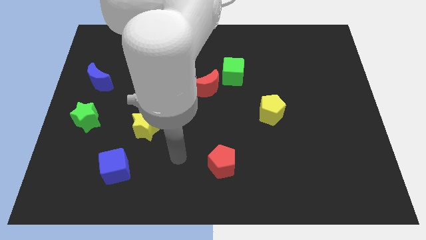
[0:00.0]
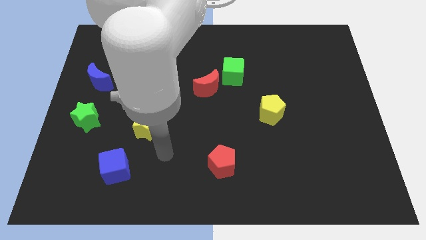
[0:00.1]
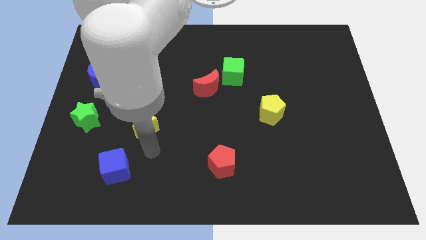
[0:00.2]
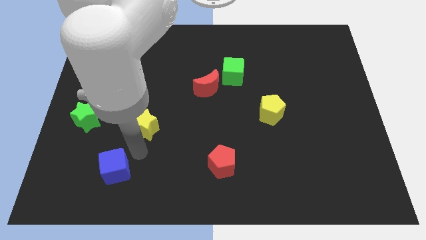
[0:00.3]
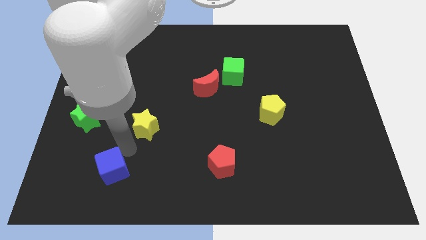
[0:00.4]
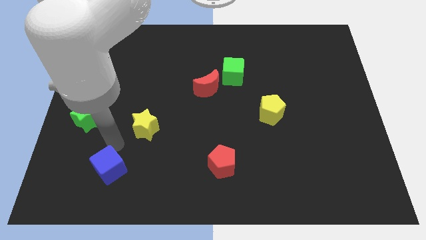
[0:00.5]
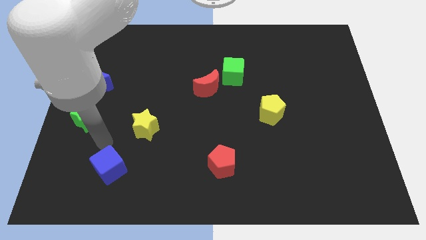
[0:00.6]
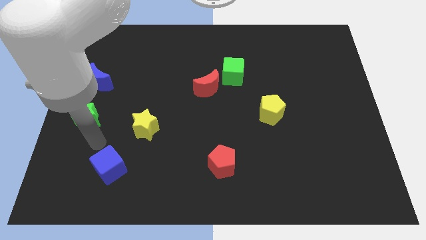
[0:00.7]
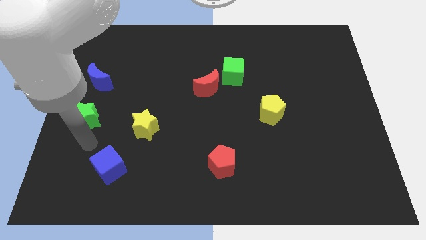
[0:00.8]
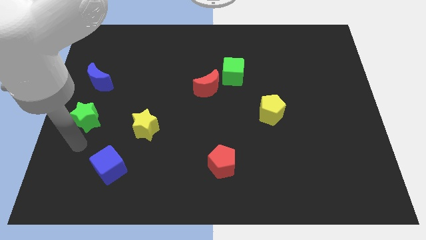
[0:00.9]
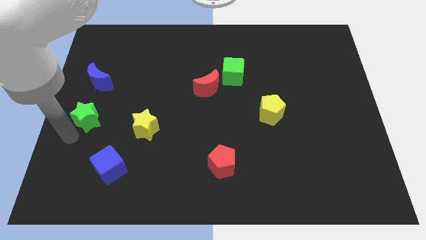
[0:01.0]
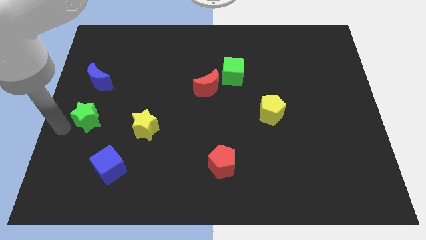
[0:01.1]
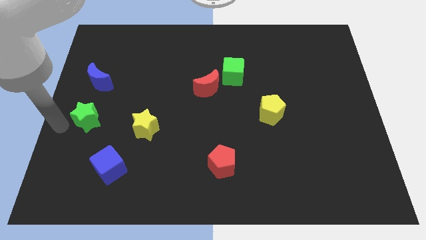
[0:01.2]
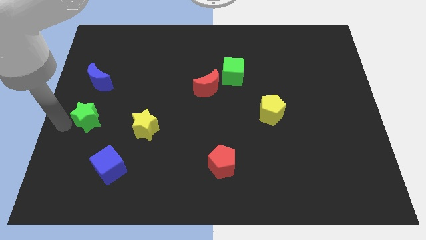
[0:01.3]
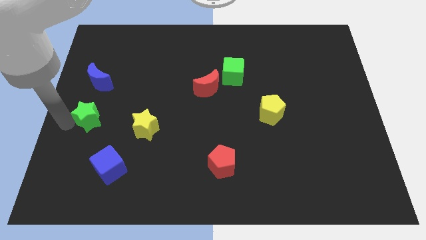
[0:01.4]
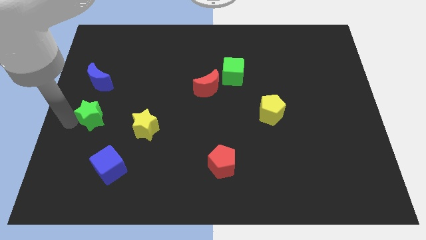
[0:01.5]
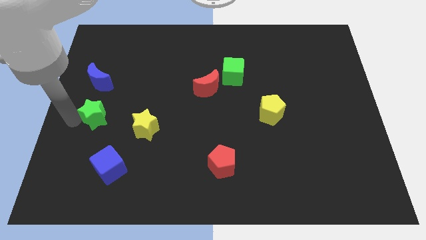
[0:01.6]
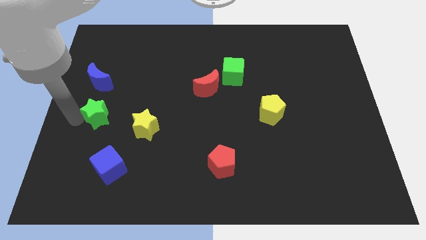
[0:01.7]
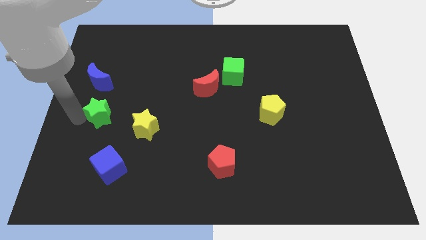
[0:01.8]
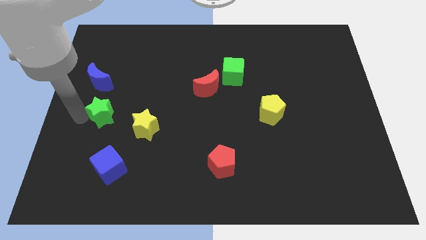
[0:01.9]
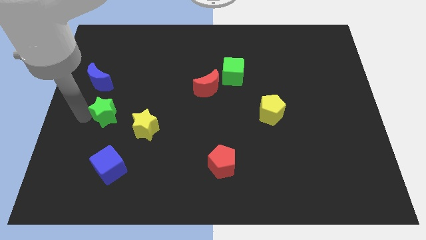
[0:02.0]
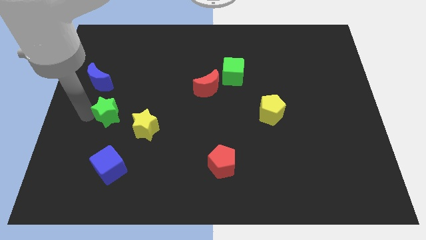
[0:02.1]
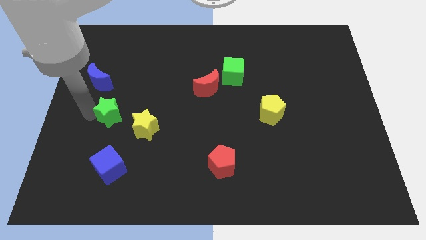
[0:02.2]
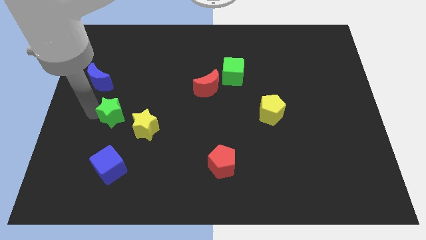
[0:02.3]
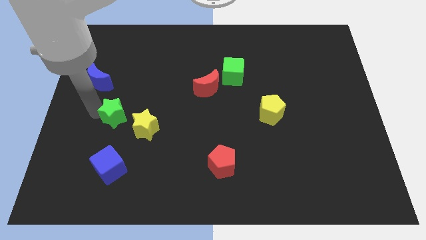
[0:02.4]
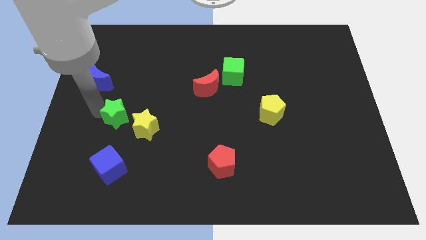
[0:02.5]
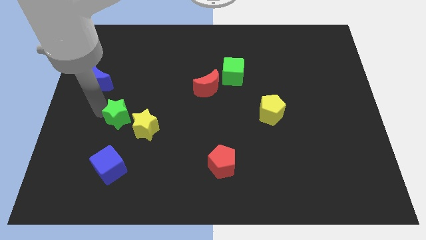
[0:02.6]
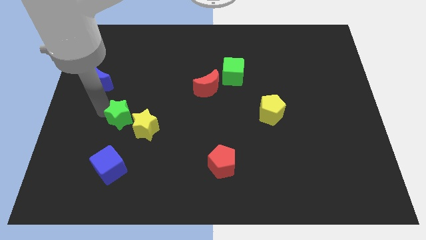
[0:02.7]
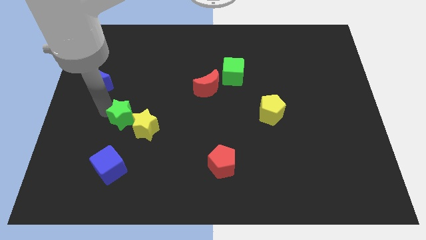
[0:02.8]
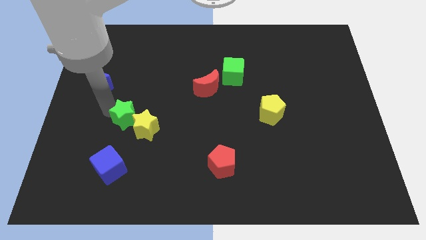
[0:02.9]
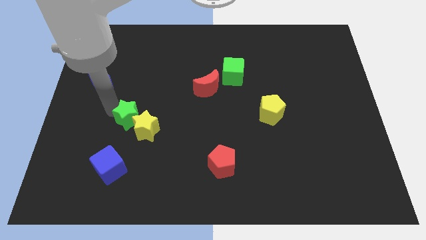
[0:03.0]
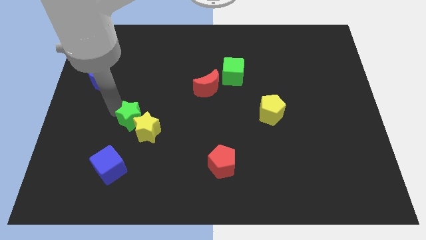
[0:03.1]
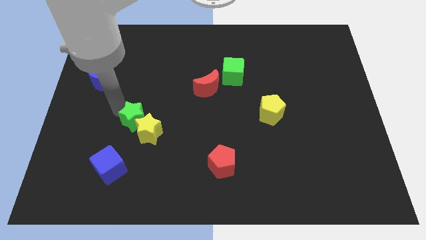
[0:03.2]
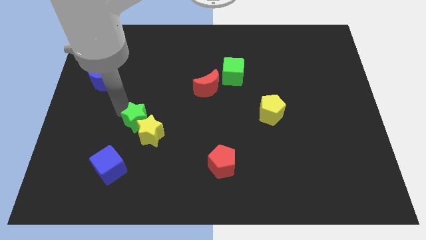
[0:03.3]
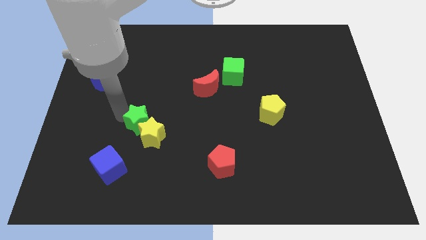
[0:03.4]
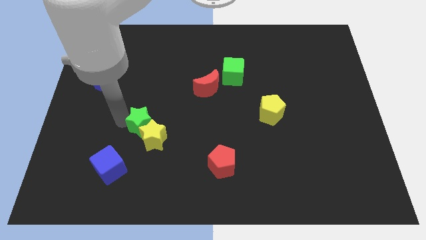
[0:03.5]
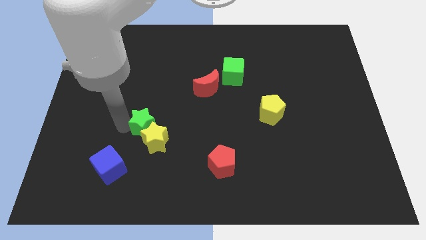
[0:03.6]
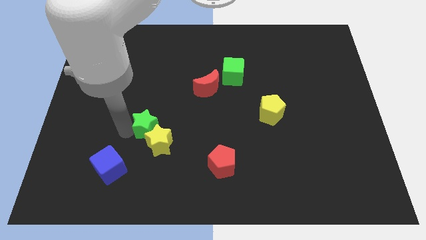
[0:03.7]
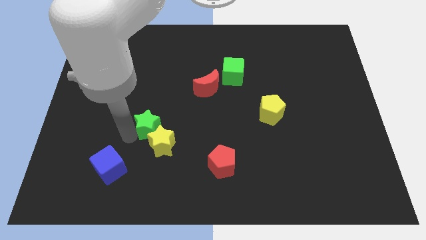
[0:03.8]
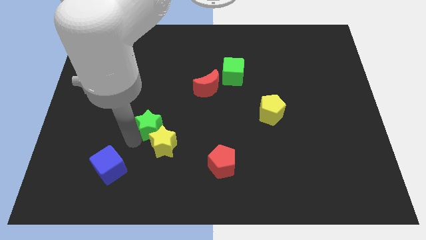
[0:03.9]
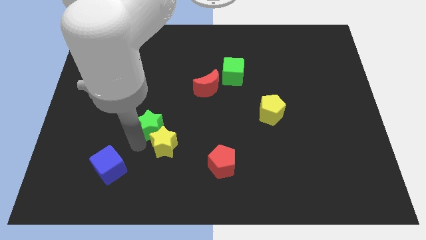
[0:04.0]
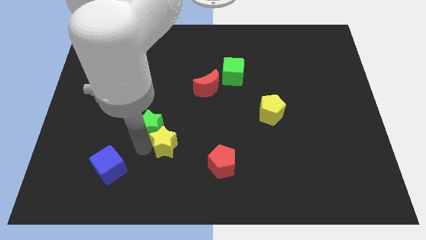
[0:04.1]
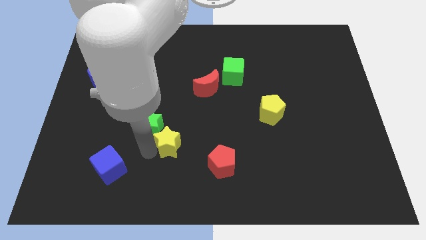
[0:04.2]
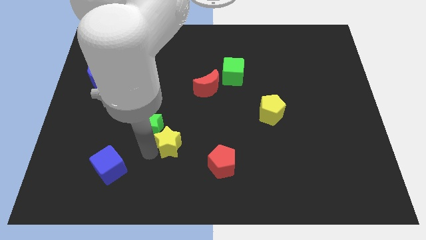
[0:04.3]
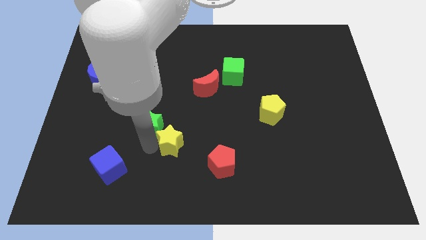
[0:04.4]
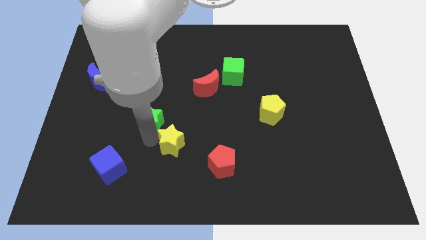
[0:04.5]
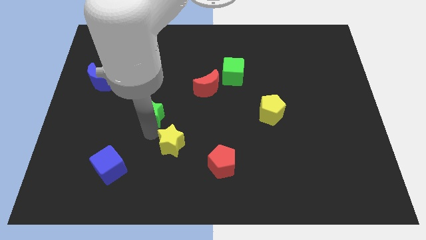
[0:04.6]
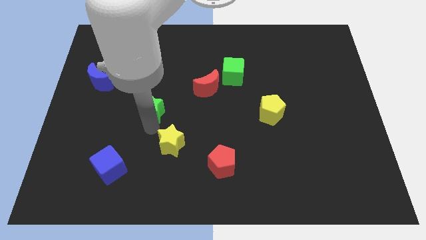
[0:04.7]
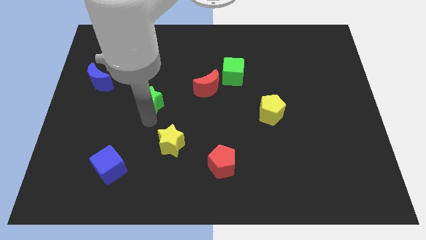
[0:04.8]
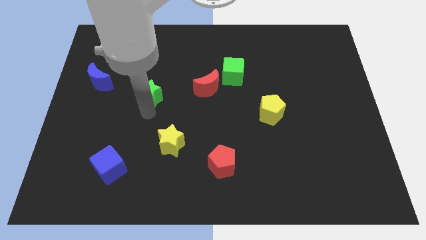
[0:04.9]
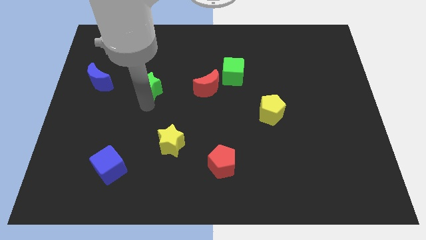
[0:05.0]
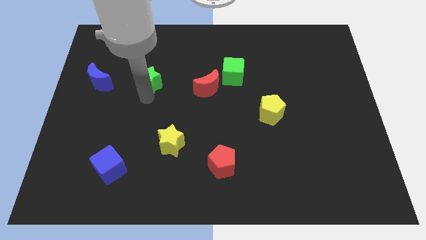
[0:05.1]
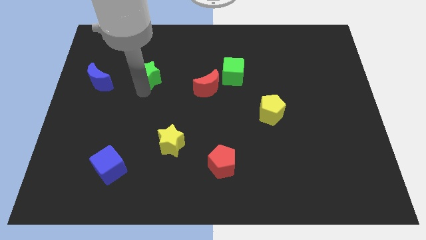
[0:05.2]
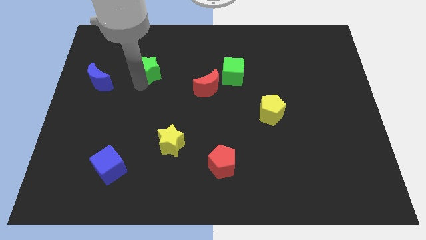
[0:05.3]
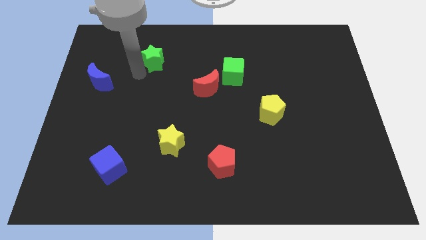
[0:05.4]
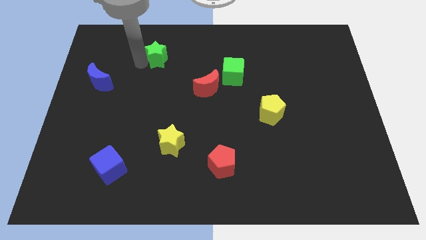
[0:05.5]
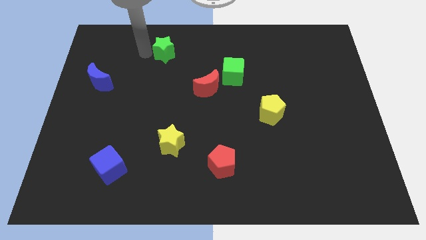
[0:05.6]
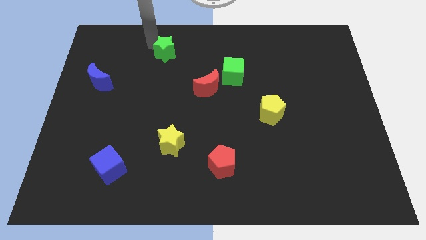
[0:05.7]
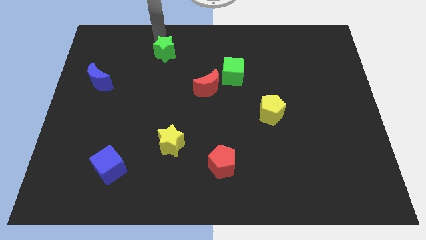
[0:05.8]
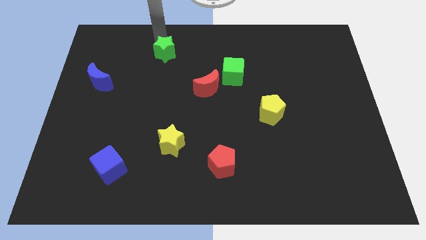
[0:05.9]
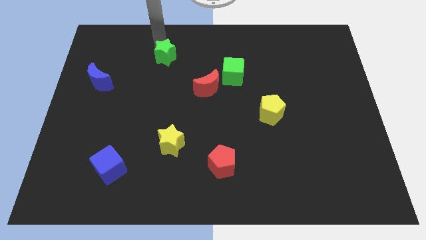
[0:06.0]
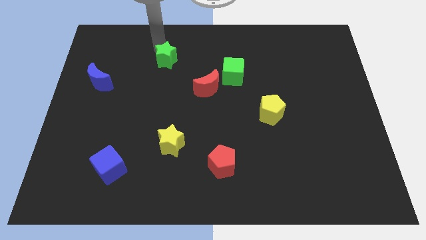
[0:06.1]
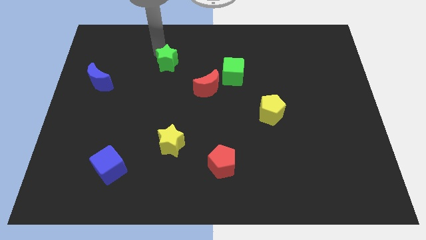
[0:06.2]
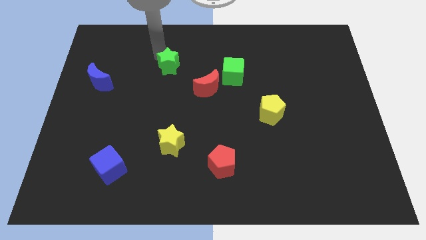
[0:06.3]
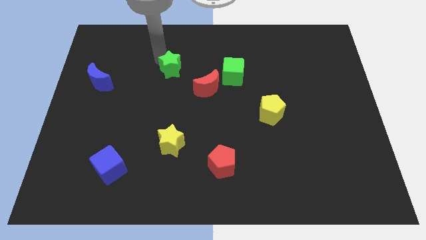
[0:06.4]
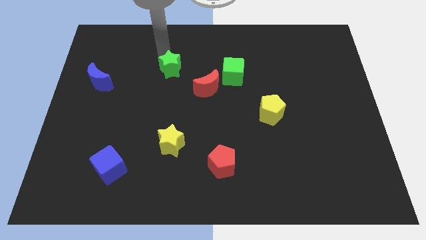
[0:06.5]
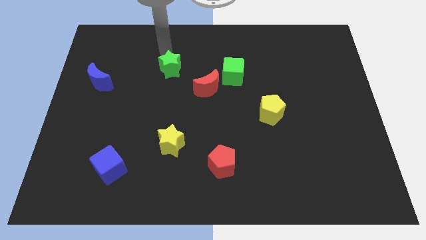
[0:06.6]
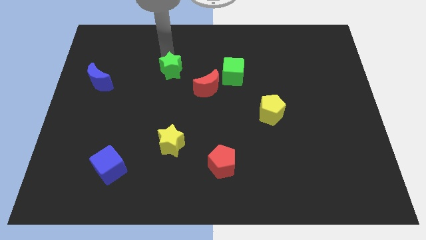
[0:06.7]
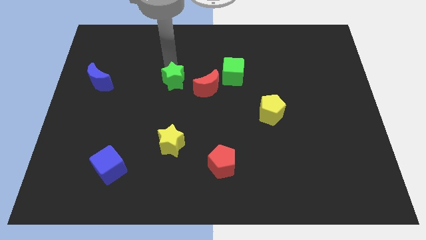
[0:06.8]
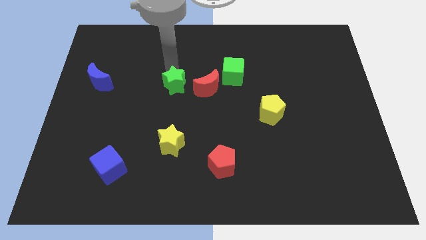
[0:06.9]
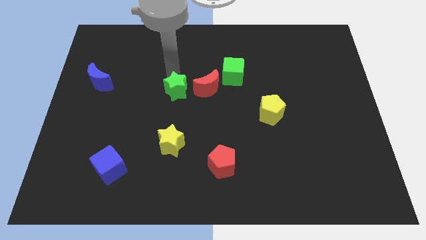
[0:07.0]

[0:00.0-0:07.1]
move the green star to the bottom left of the red moon
